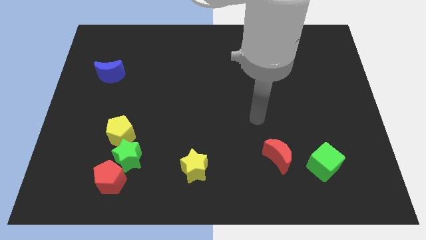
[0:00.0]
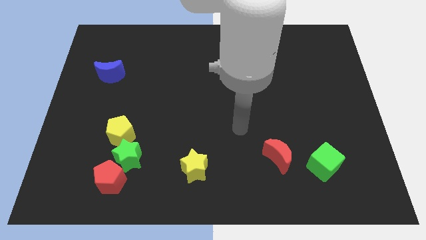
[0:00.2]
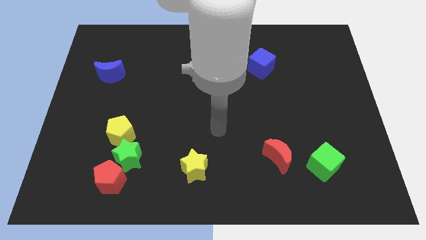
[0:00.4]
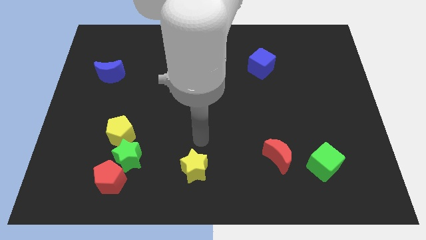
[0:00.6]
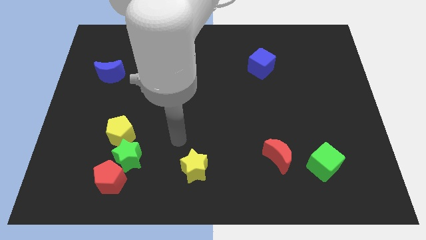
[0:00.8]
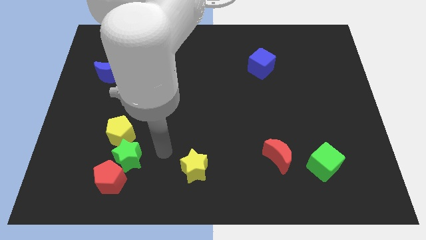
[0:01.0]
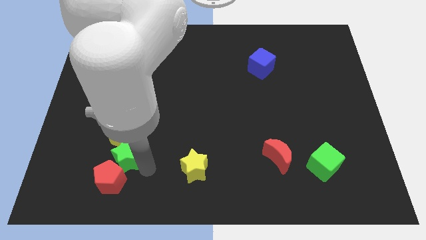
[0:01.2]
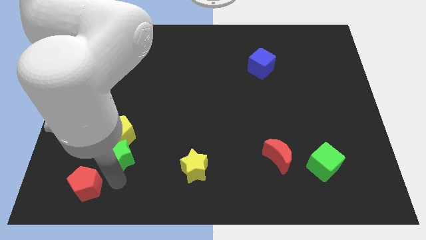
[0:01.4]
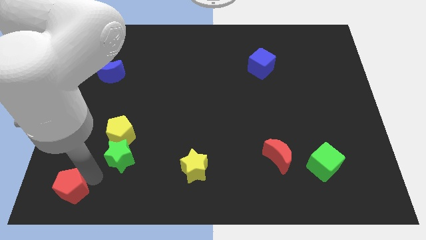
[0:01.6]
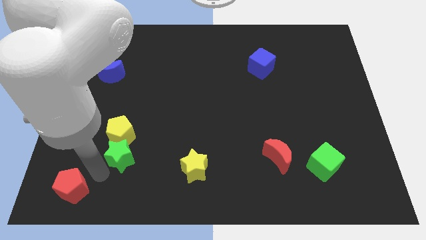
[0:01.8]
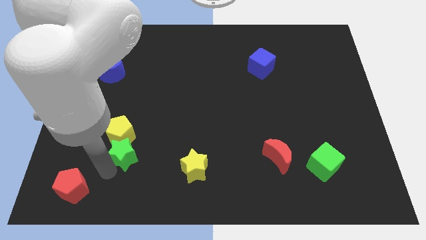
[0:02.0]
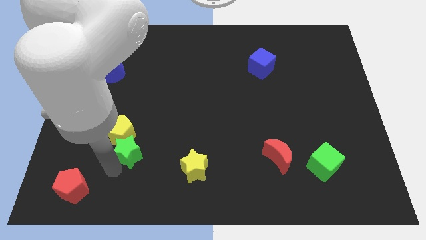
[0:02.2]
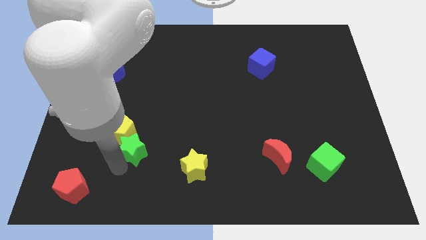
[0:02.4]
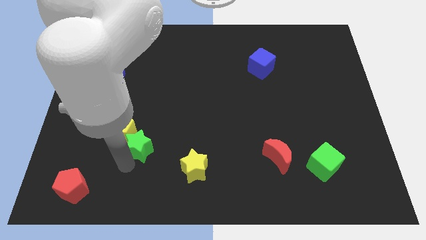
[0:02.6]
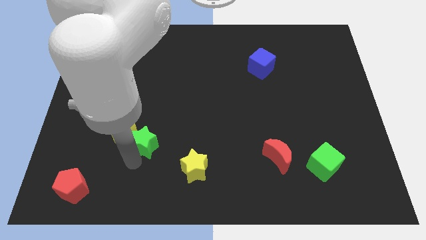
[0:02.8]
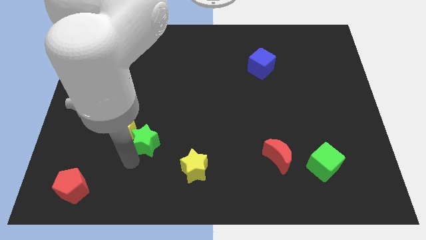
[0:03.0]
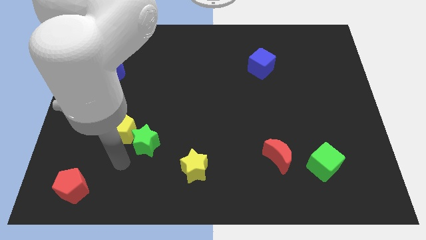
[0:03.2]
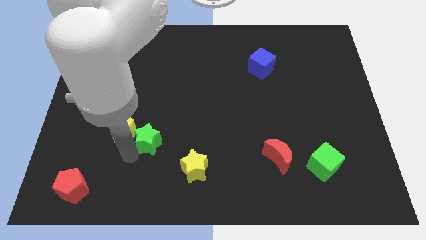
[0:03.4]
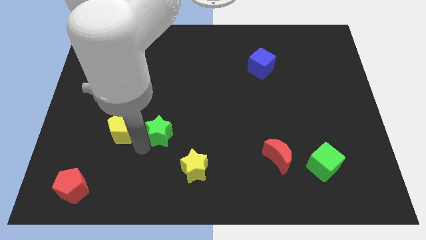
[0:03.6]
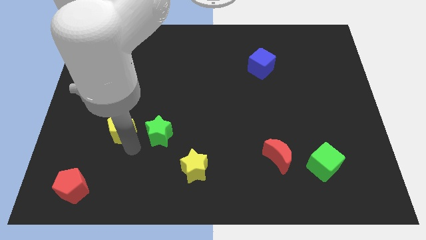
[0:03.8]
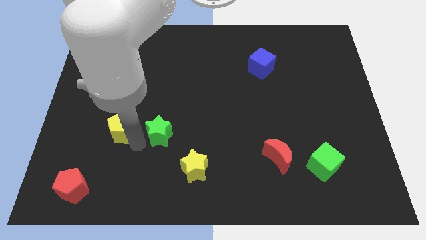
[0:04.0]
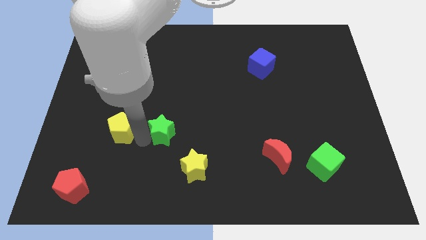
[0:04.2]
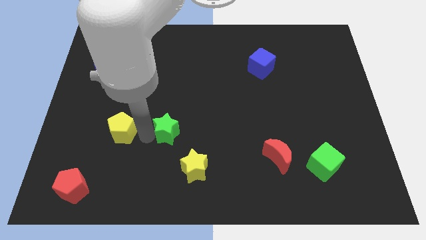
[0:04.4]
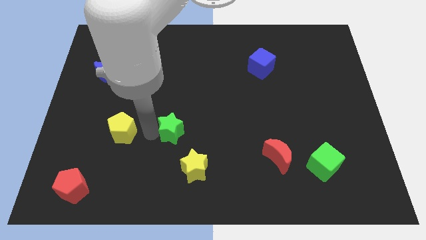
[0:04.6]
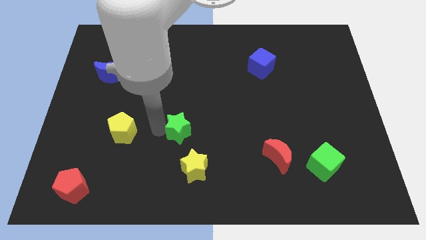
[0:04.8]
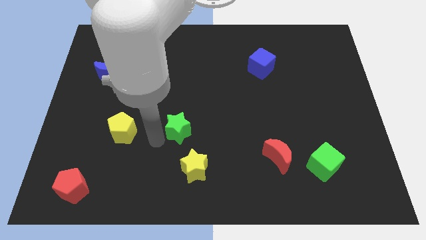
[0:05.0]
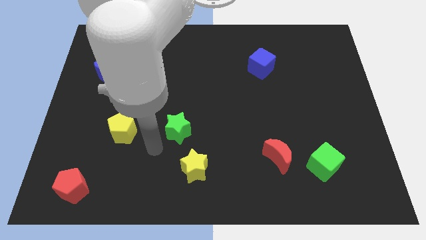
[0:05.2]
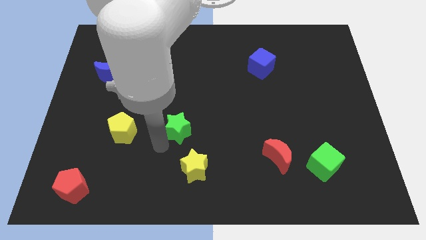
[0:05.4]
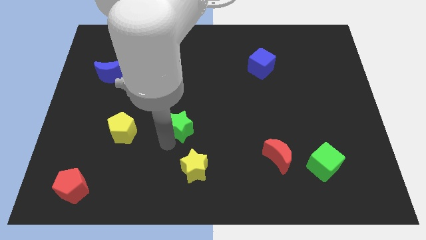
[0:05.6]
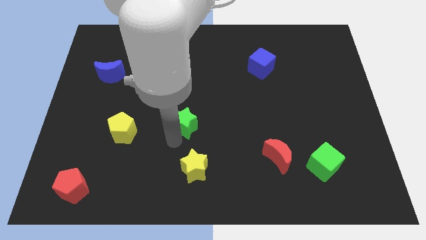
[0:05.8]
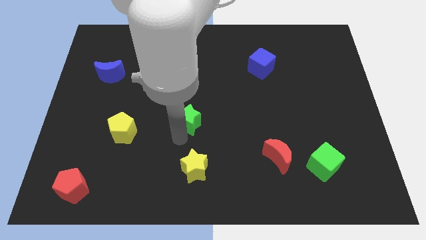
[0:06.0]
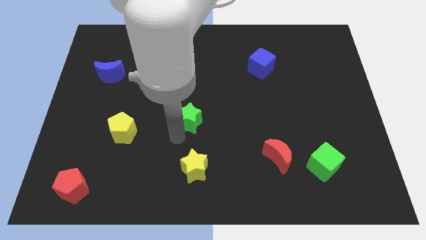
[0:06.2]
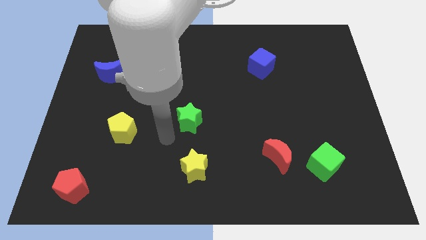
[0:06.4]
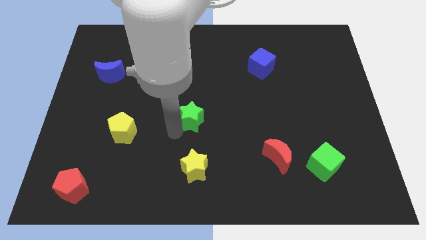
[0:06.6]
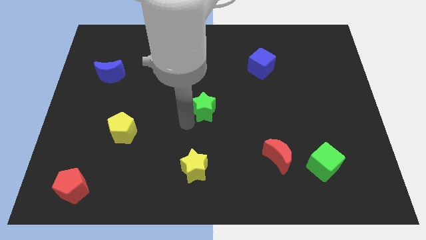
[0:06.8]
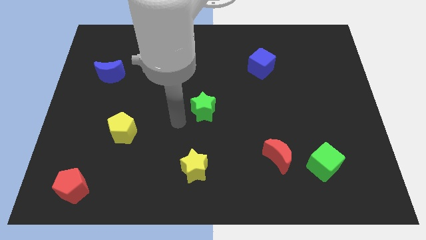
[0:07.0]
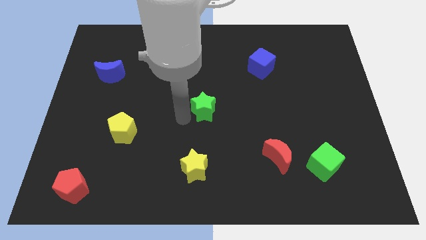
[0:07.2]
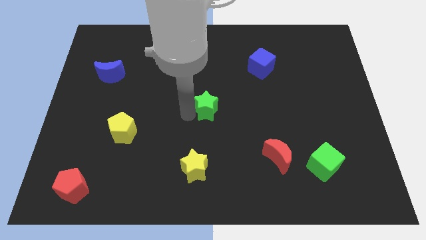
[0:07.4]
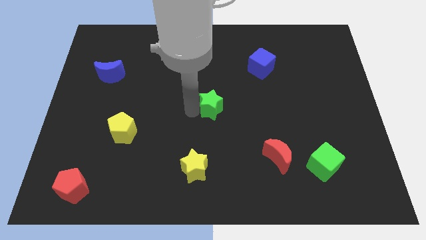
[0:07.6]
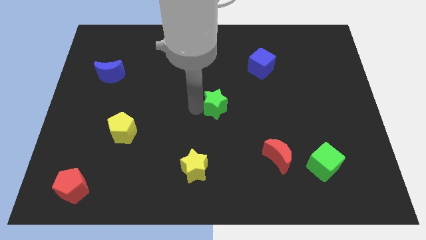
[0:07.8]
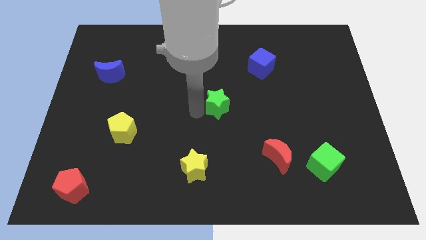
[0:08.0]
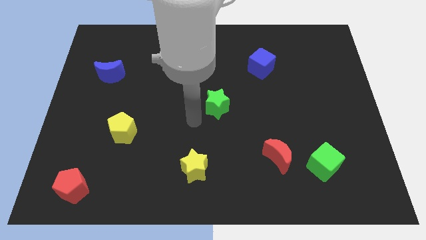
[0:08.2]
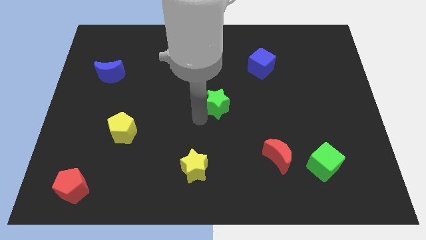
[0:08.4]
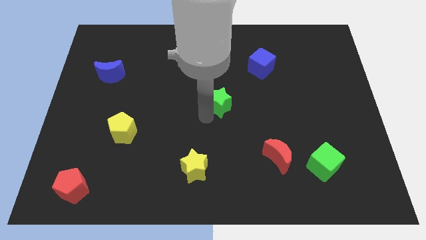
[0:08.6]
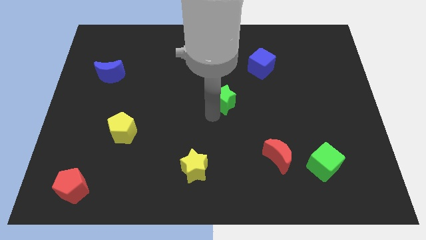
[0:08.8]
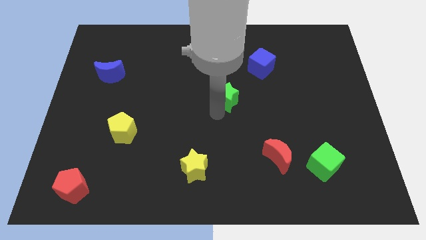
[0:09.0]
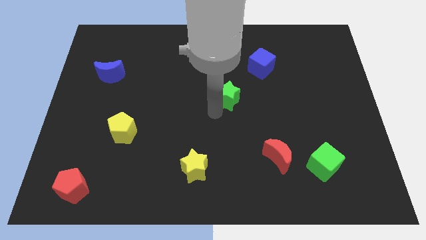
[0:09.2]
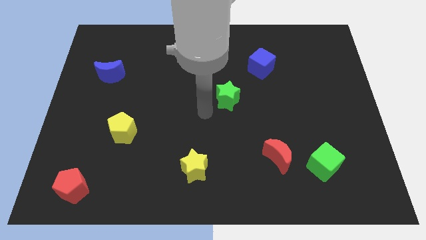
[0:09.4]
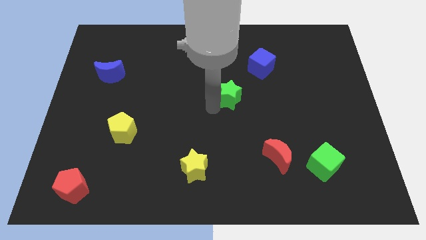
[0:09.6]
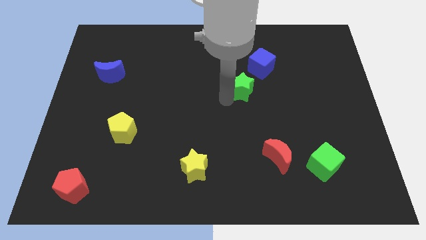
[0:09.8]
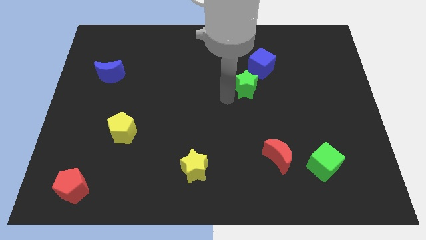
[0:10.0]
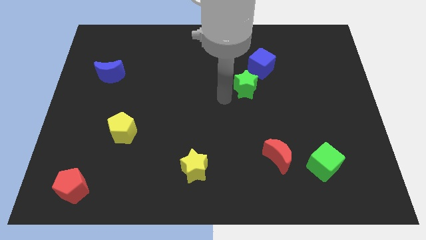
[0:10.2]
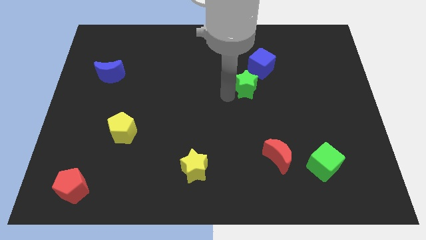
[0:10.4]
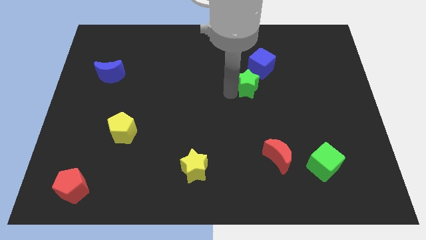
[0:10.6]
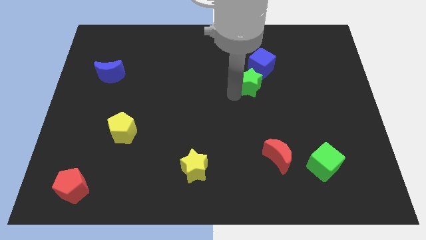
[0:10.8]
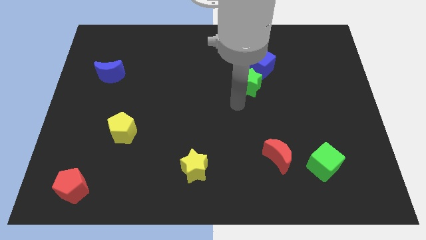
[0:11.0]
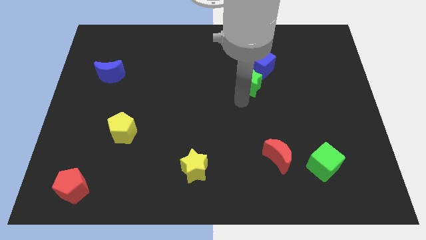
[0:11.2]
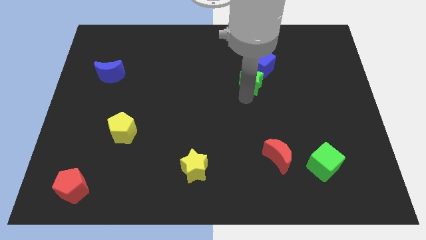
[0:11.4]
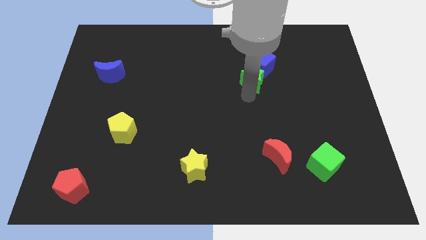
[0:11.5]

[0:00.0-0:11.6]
put the green star next to the blue cube

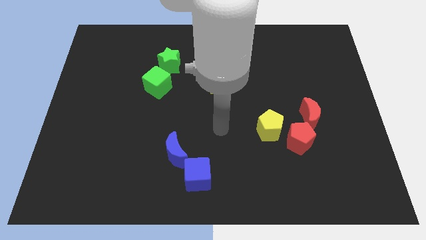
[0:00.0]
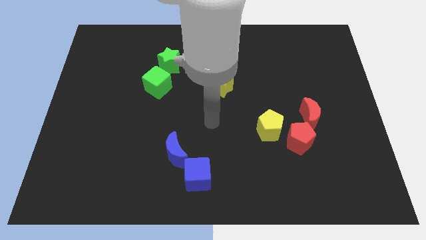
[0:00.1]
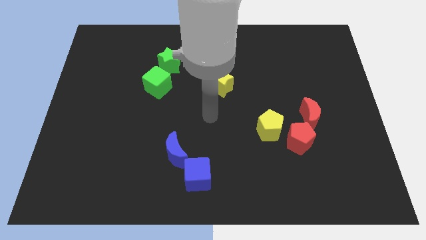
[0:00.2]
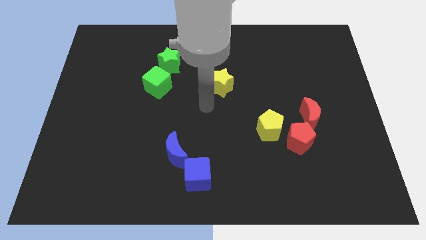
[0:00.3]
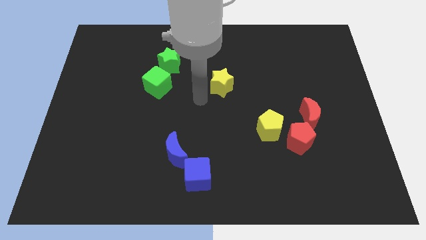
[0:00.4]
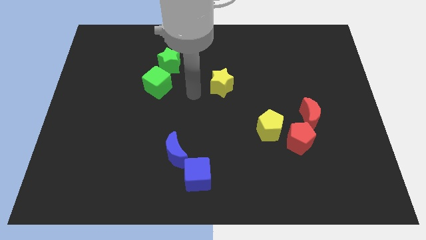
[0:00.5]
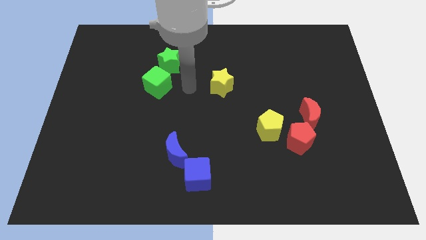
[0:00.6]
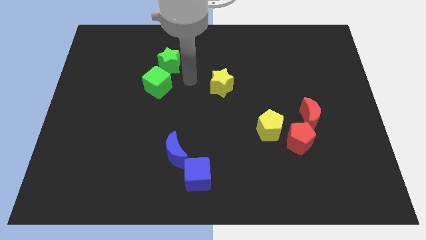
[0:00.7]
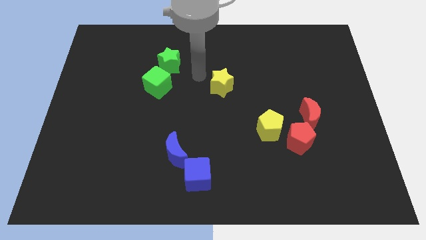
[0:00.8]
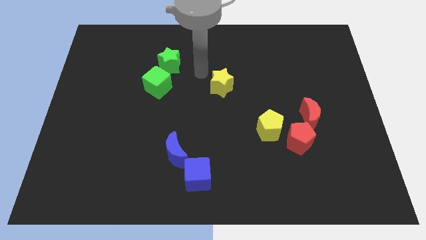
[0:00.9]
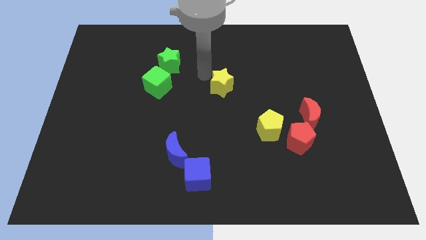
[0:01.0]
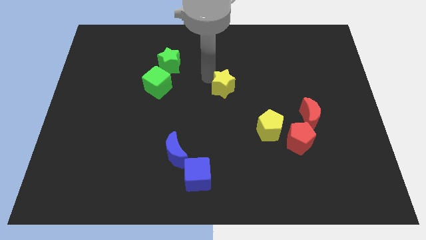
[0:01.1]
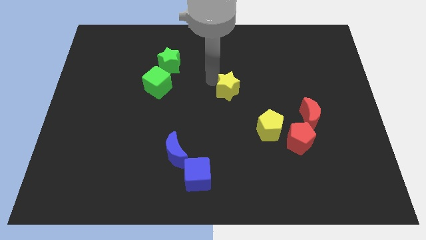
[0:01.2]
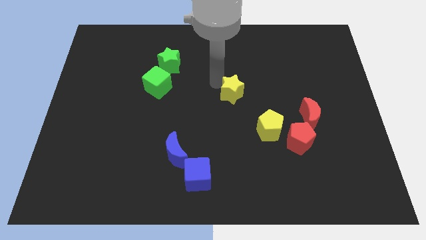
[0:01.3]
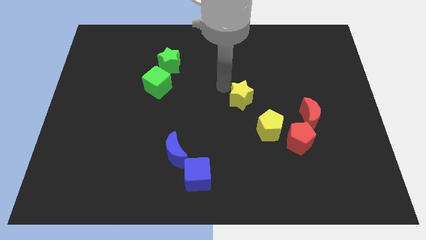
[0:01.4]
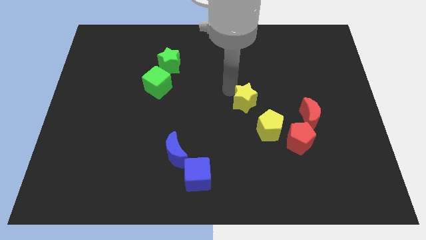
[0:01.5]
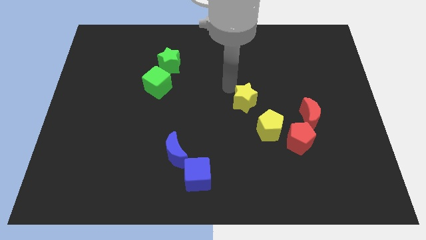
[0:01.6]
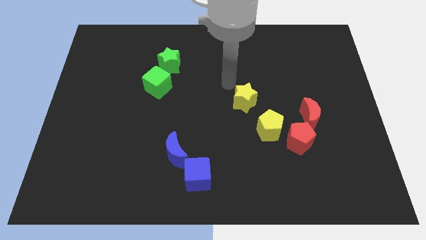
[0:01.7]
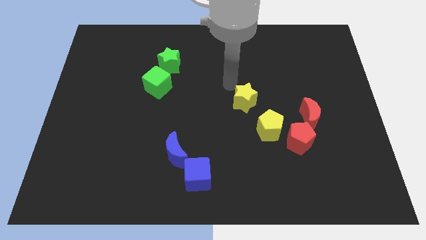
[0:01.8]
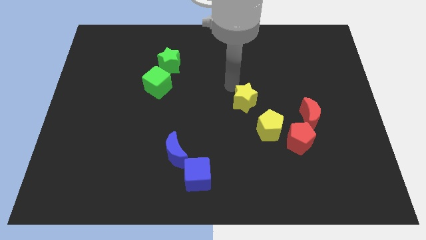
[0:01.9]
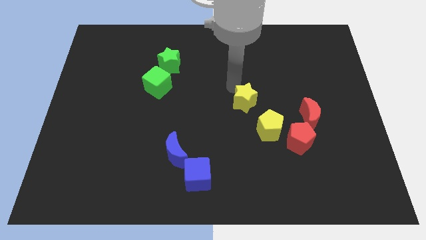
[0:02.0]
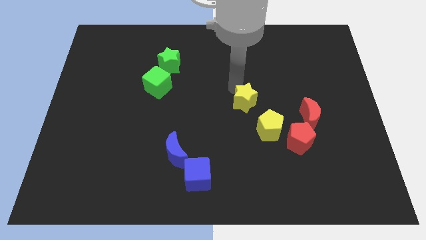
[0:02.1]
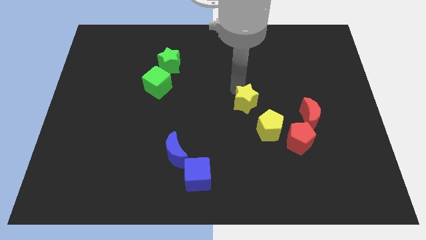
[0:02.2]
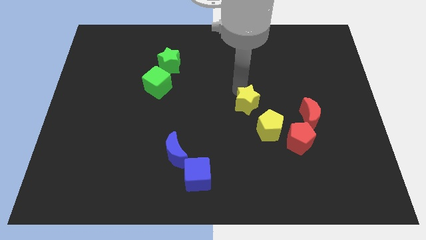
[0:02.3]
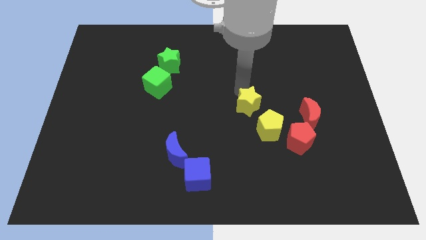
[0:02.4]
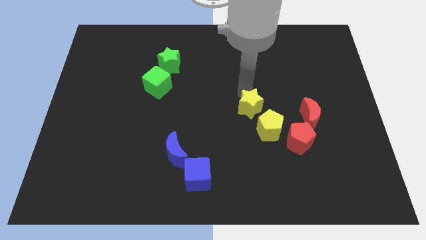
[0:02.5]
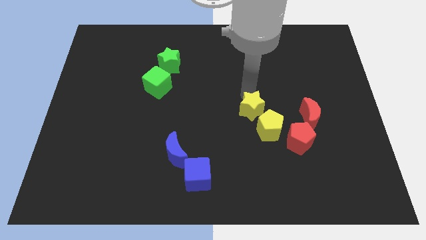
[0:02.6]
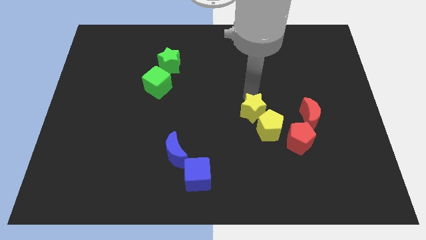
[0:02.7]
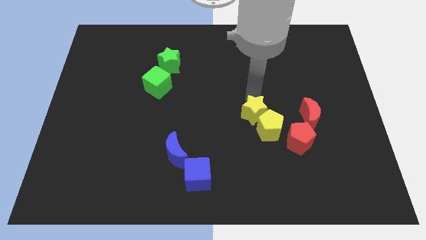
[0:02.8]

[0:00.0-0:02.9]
push the yellow star towards the yellow pentagon
